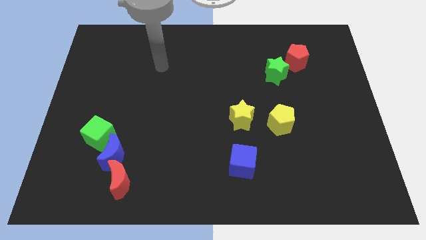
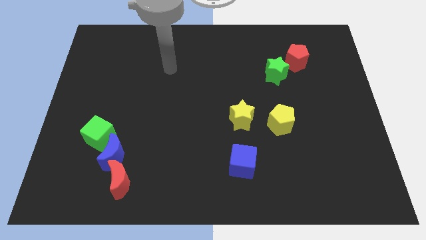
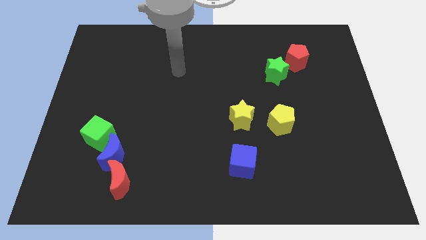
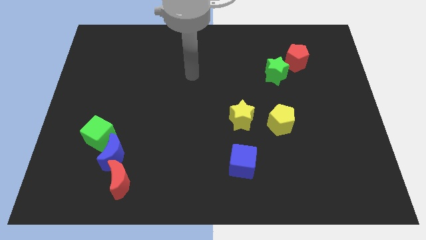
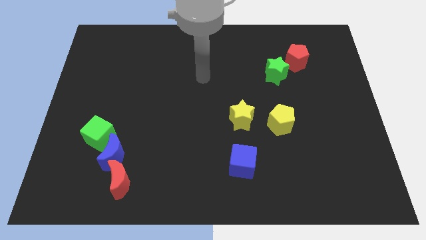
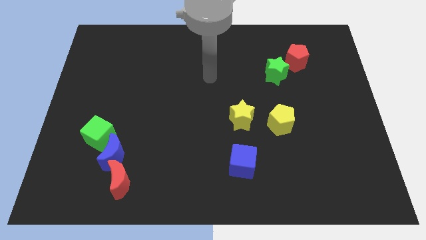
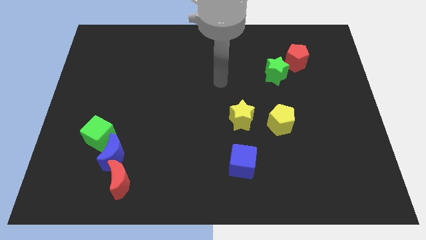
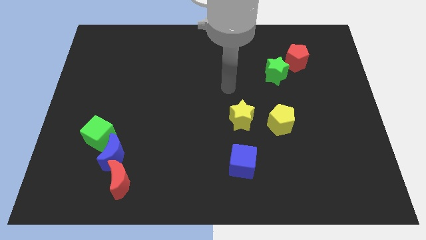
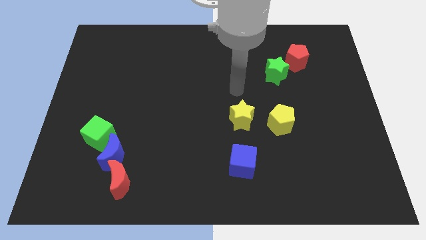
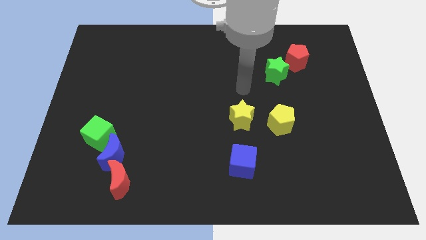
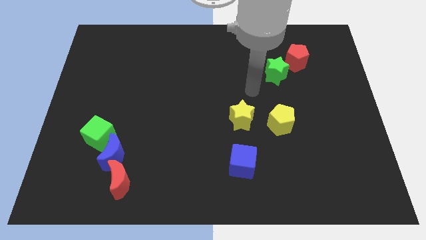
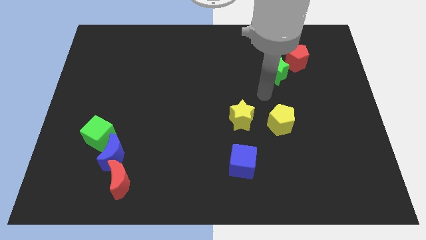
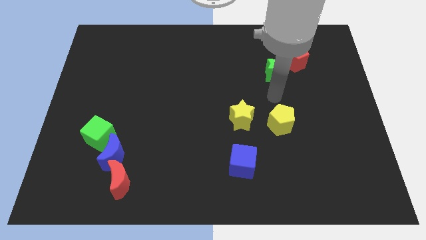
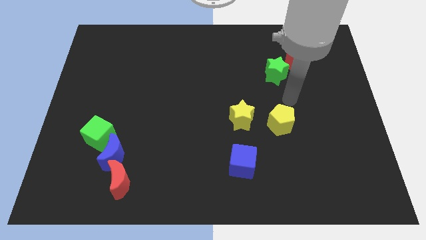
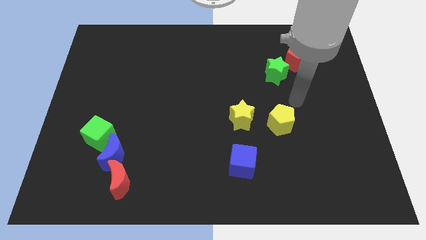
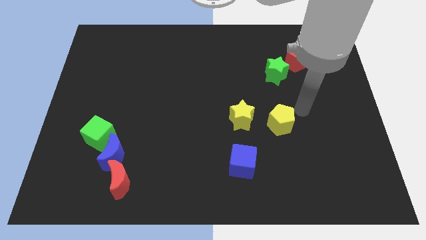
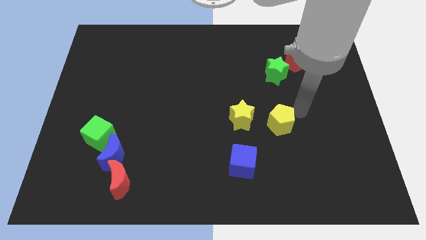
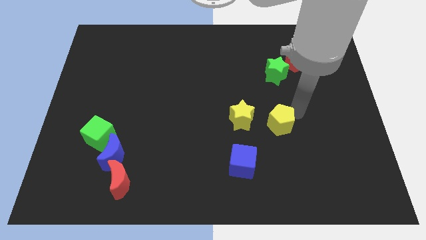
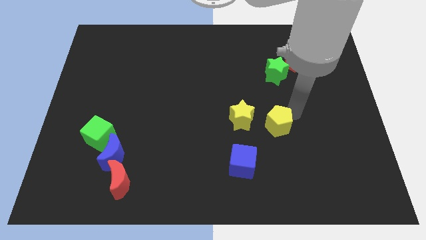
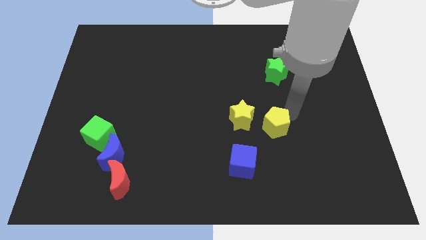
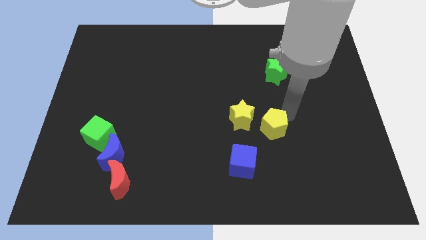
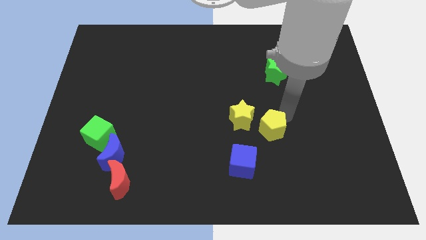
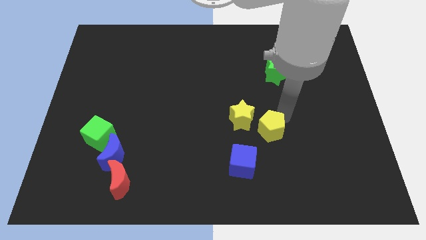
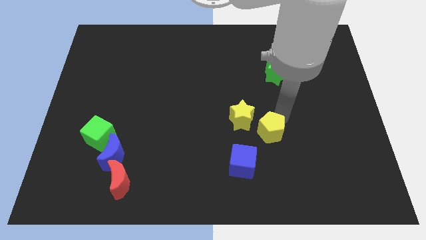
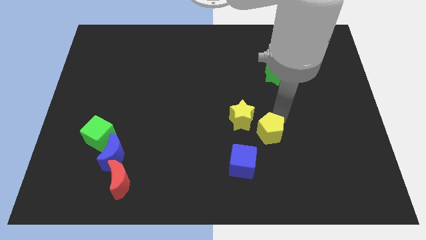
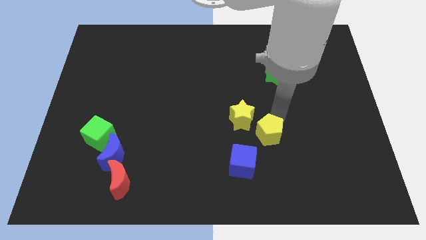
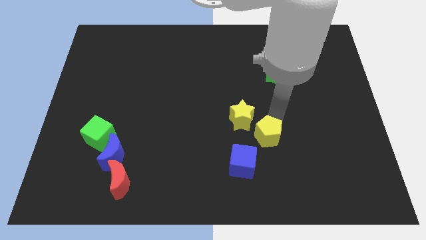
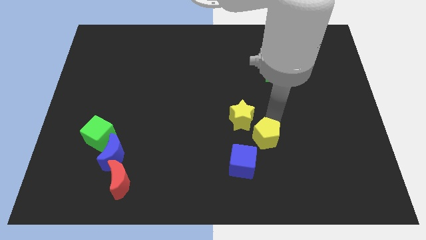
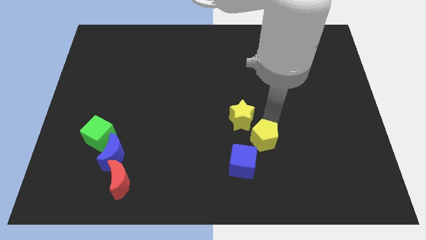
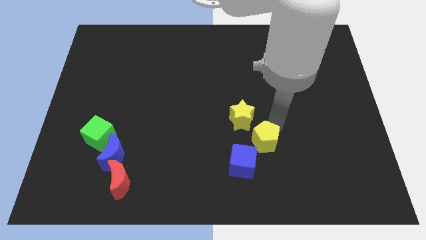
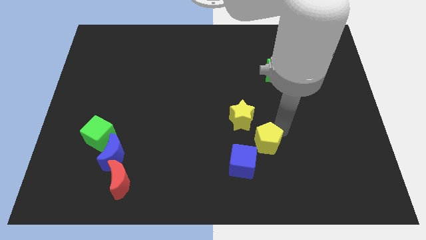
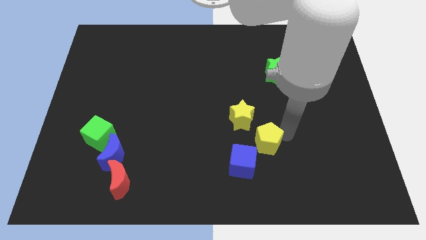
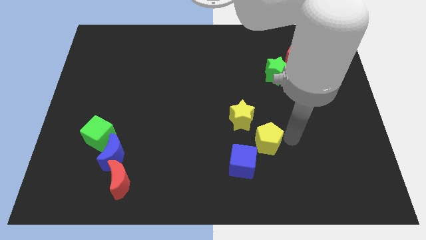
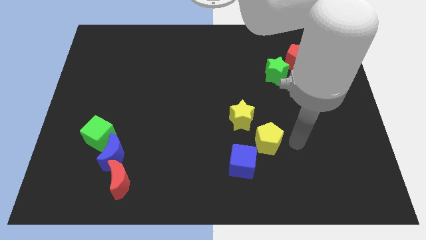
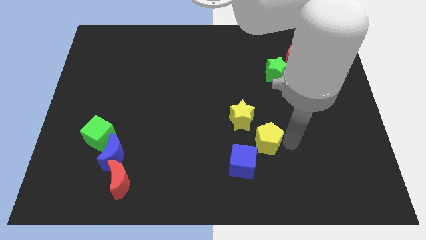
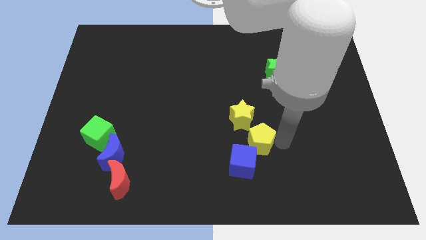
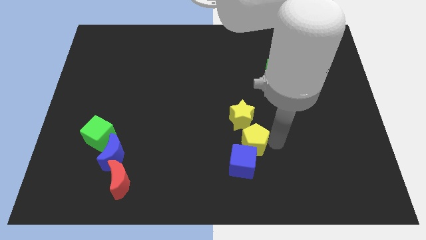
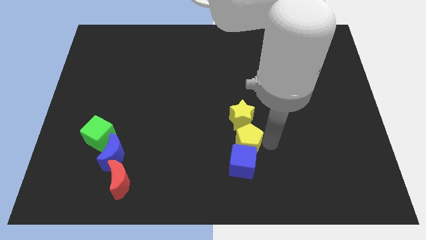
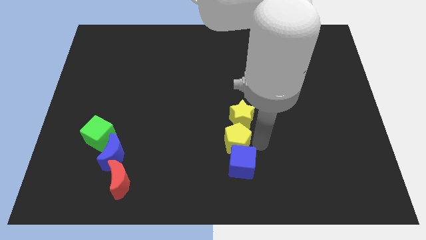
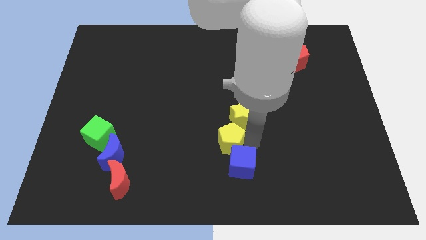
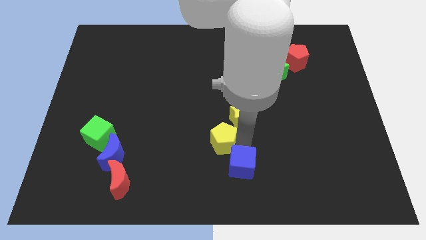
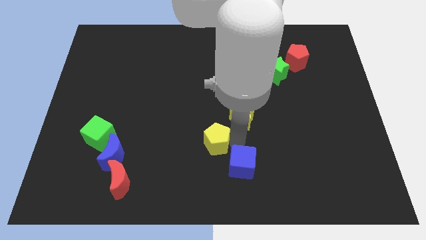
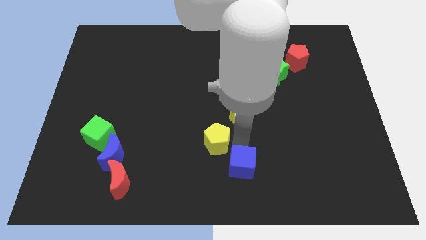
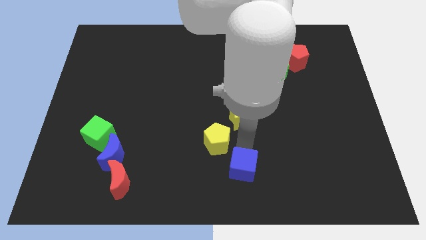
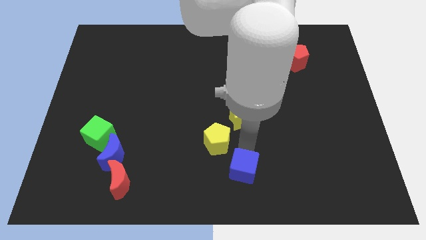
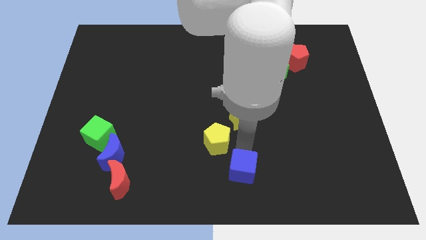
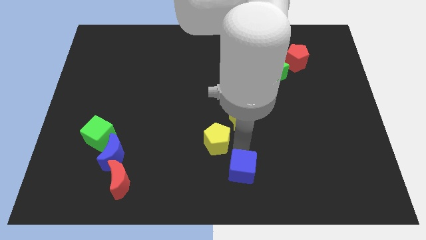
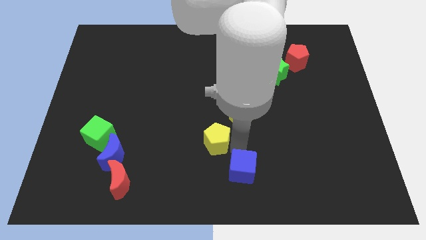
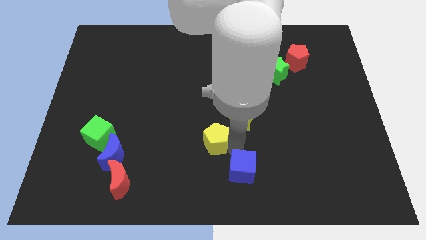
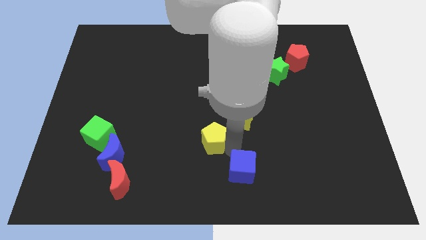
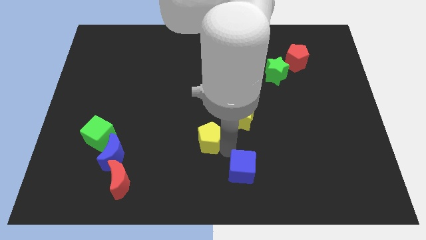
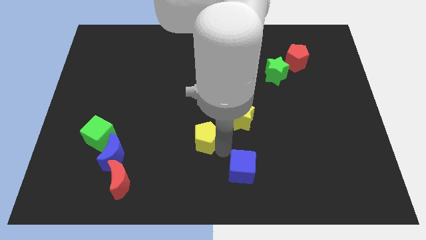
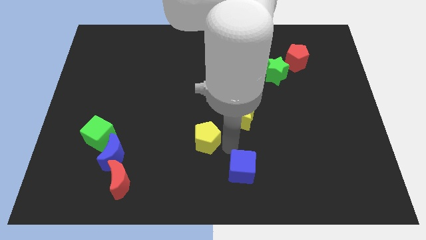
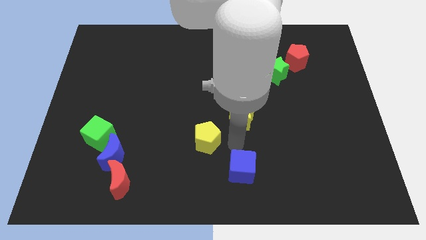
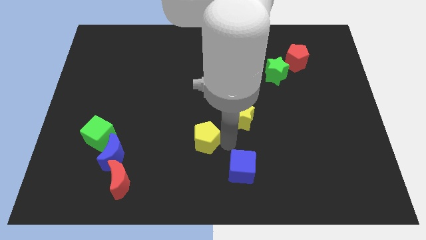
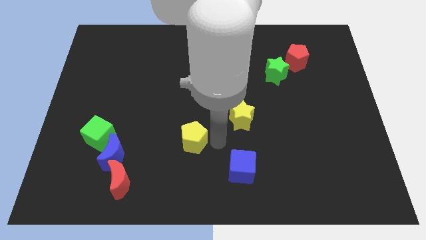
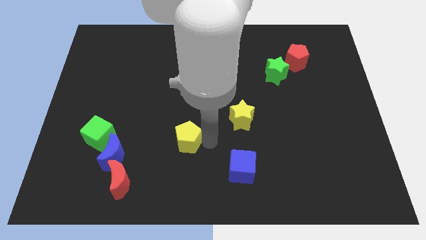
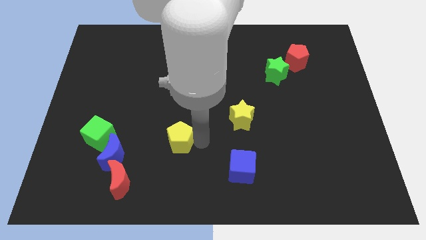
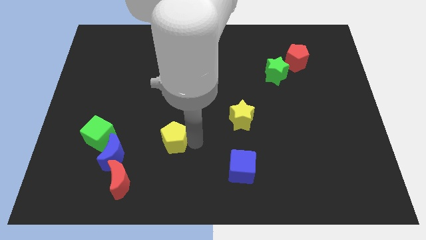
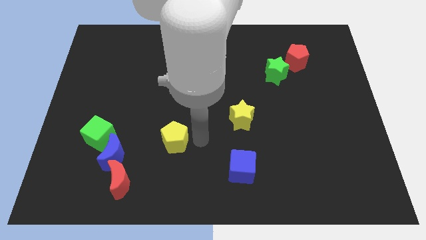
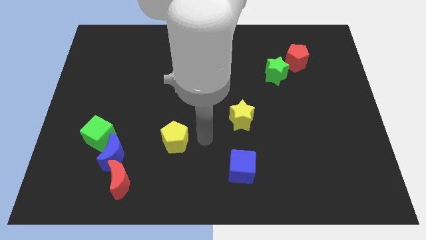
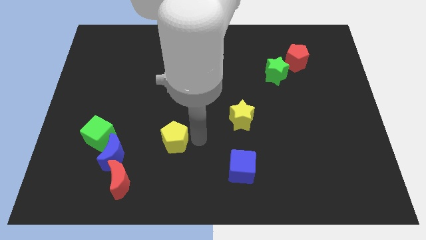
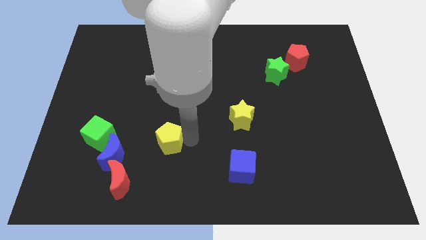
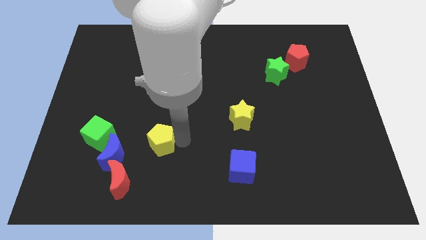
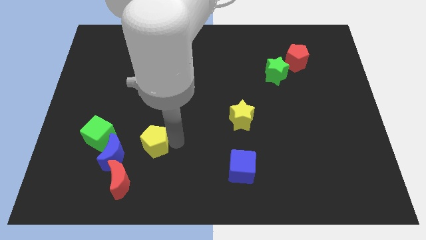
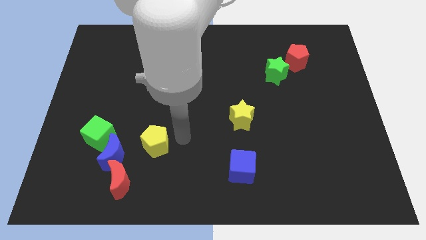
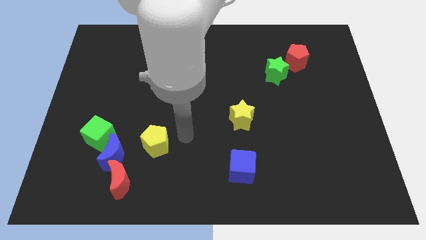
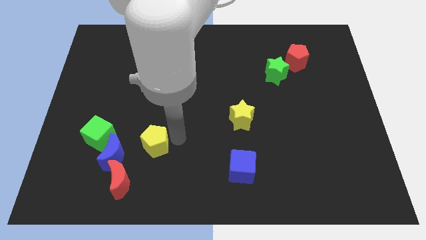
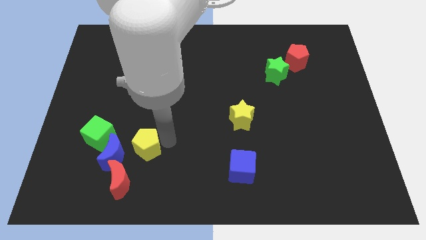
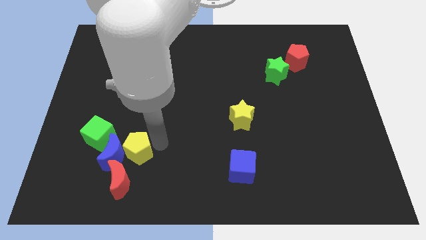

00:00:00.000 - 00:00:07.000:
put the yellow pentagon to the blue moon

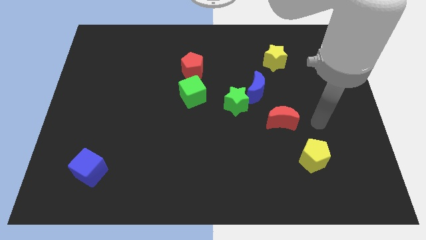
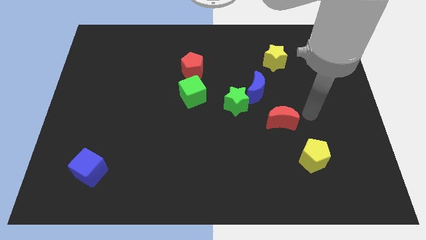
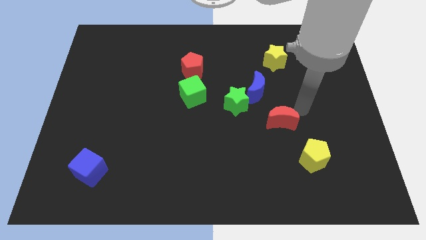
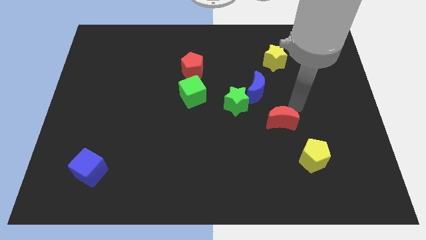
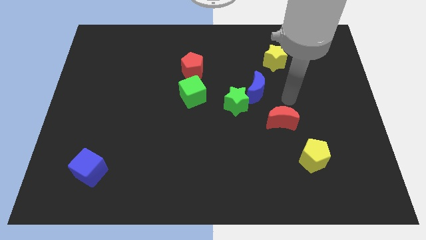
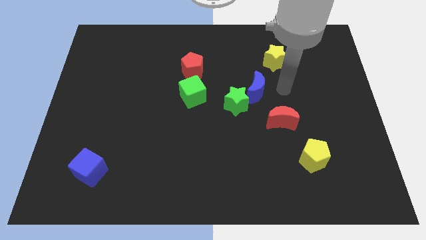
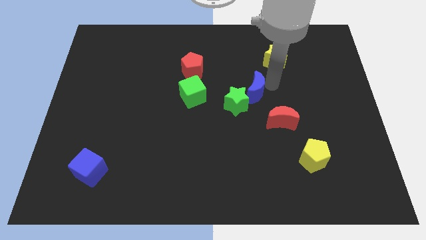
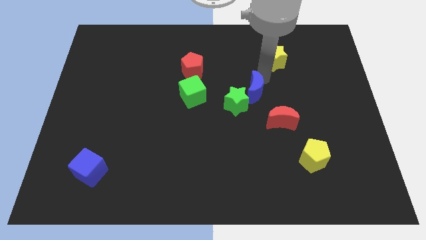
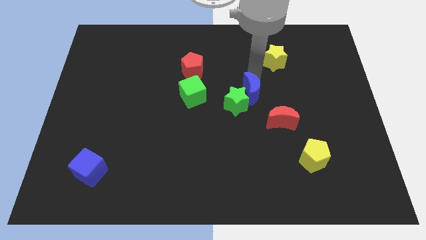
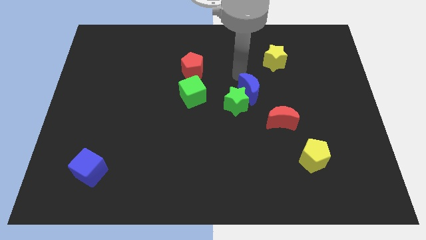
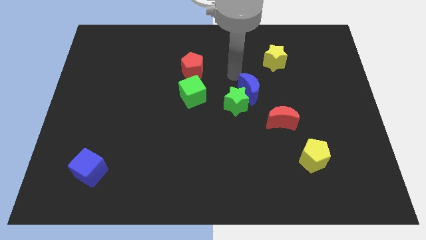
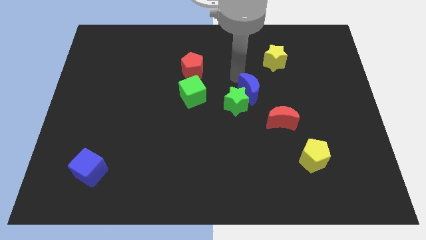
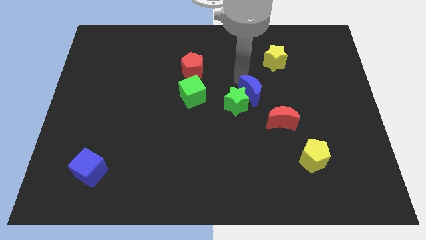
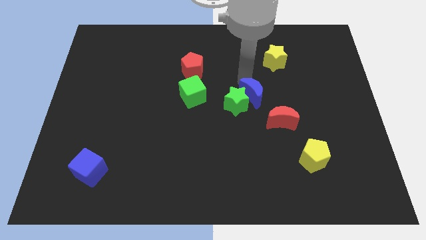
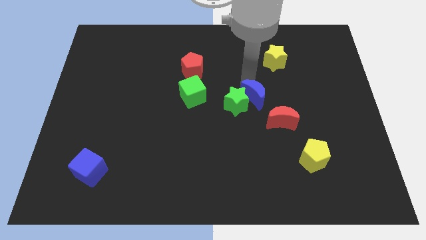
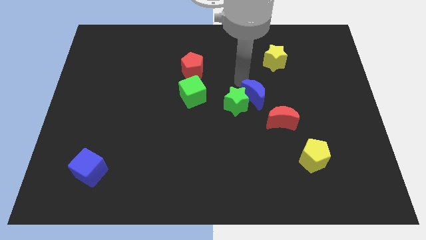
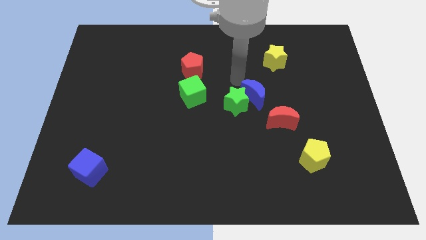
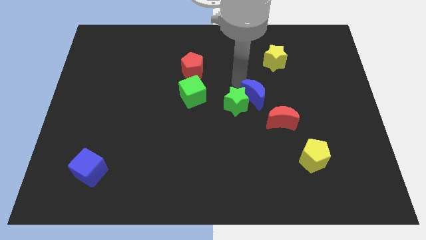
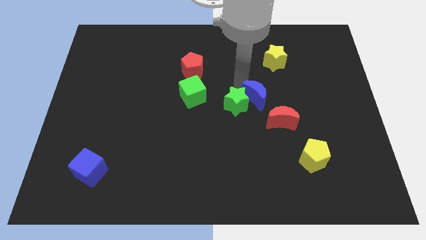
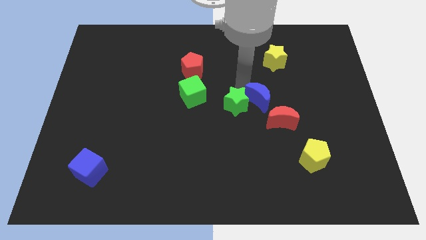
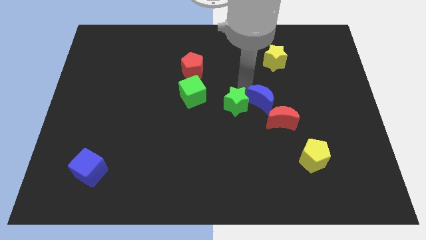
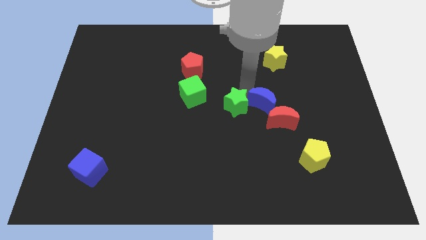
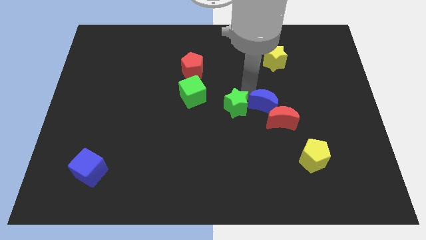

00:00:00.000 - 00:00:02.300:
slide the blue moon towards the red moon
